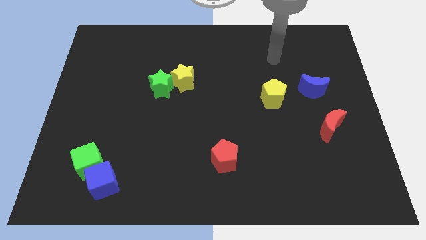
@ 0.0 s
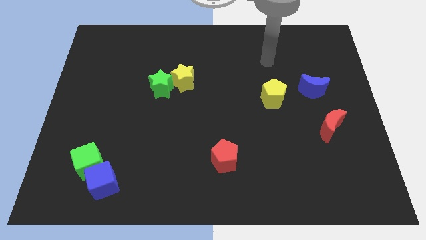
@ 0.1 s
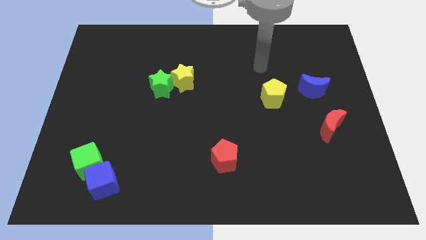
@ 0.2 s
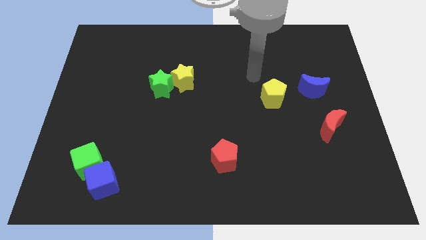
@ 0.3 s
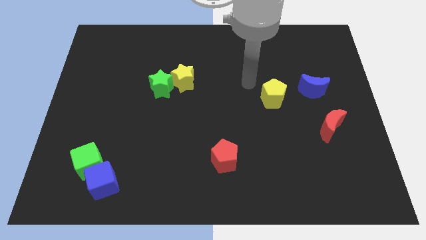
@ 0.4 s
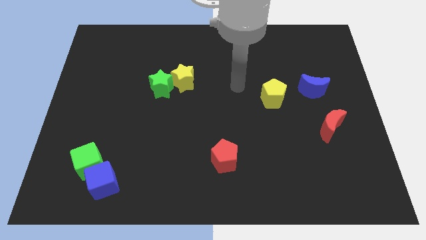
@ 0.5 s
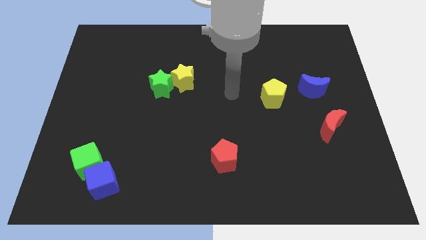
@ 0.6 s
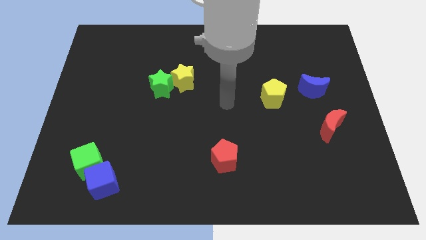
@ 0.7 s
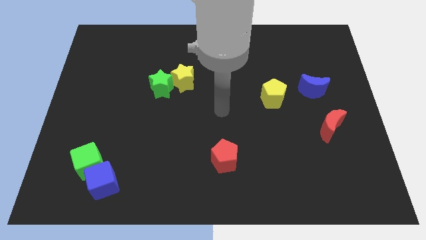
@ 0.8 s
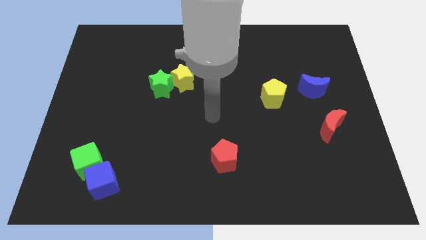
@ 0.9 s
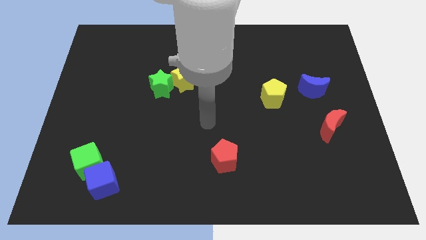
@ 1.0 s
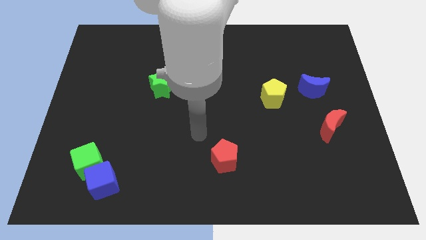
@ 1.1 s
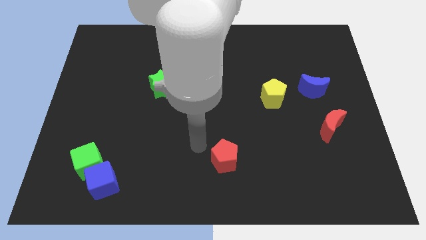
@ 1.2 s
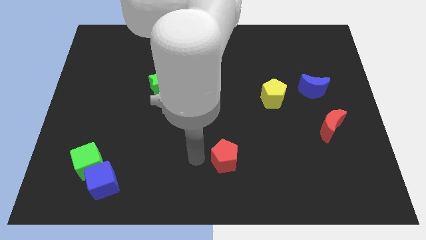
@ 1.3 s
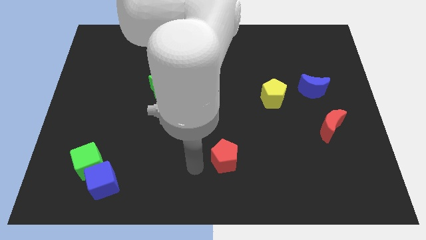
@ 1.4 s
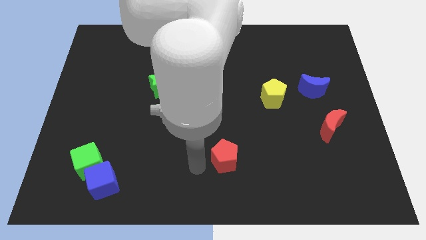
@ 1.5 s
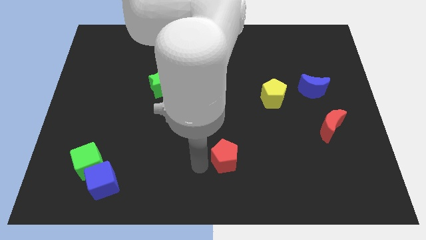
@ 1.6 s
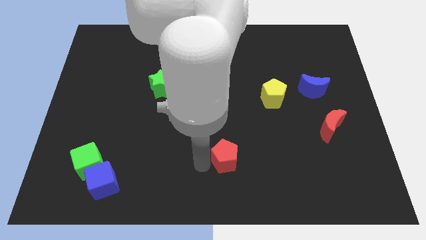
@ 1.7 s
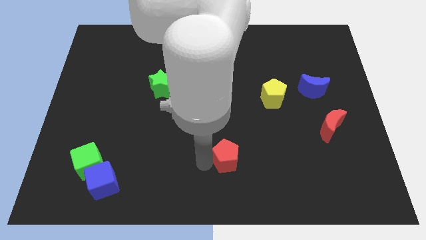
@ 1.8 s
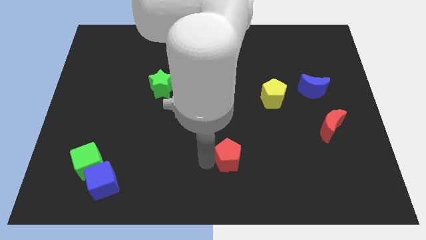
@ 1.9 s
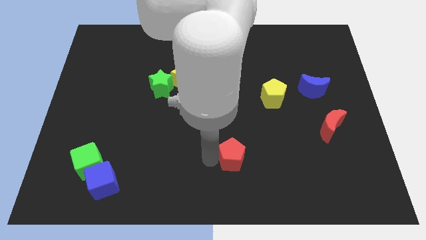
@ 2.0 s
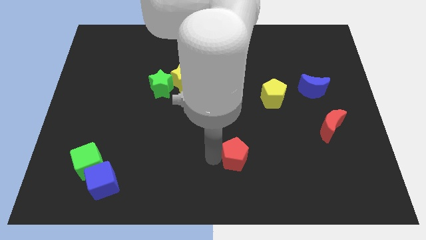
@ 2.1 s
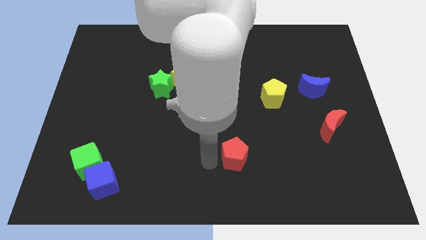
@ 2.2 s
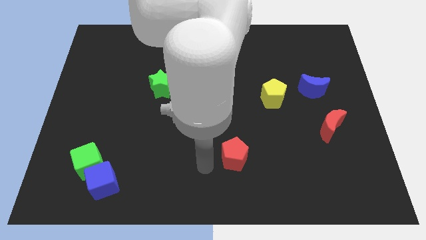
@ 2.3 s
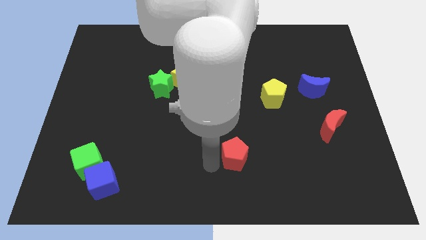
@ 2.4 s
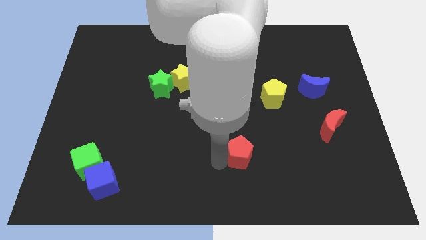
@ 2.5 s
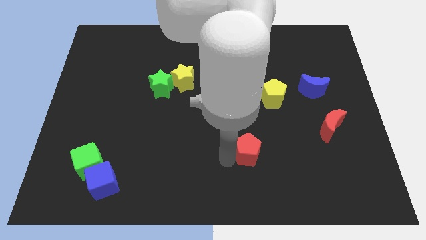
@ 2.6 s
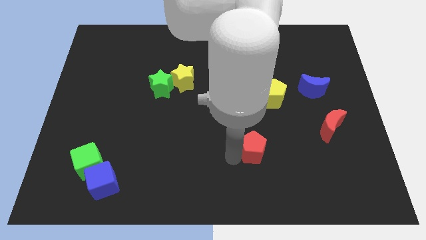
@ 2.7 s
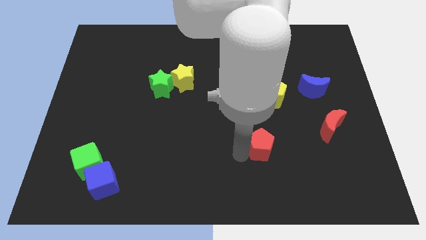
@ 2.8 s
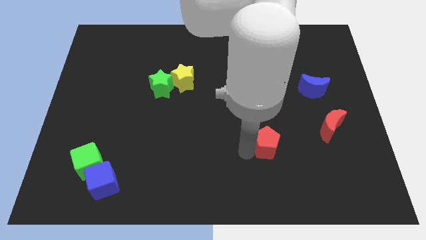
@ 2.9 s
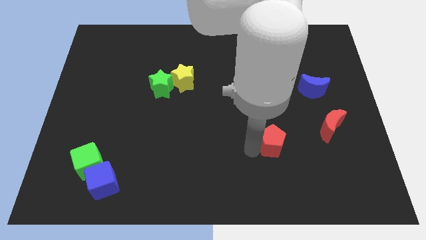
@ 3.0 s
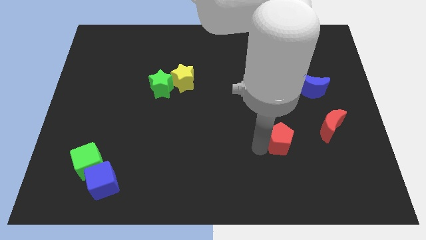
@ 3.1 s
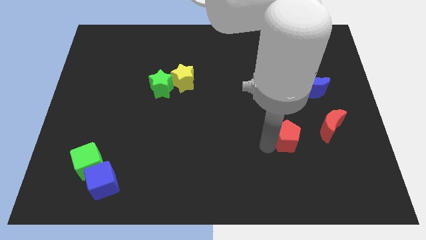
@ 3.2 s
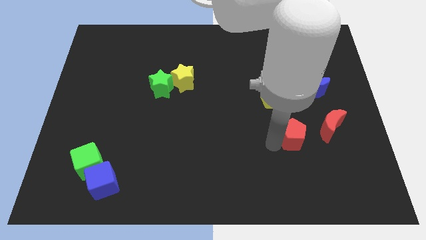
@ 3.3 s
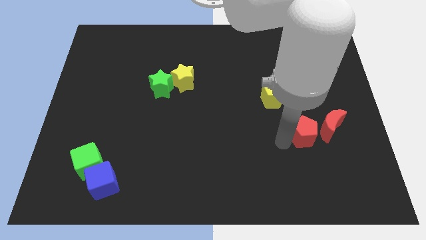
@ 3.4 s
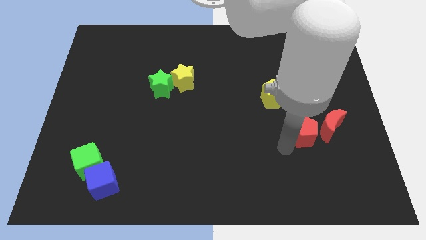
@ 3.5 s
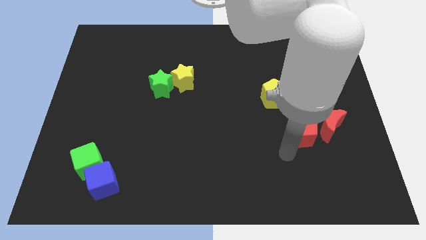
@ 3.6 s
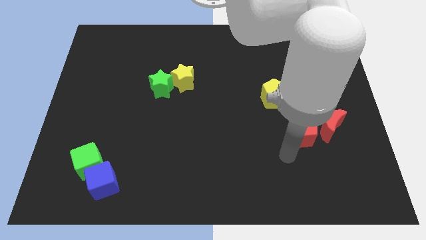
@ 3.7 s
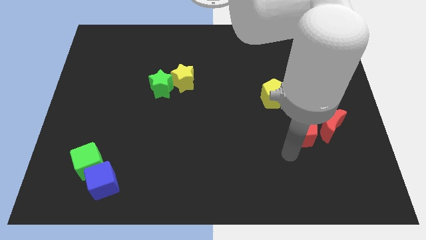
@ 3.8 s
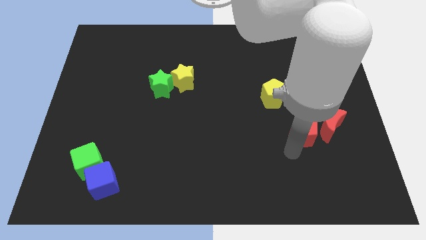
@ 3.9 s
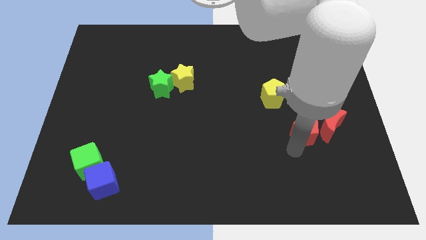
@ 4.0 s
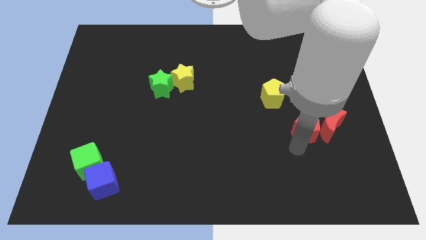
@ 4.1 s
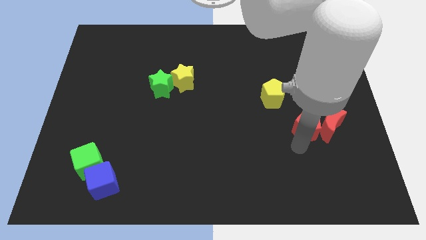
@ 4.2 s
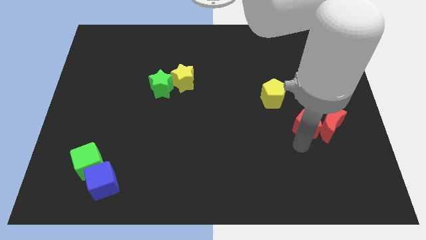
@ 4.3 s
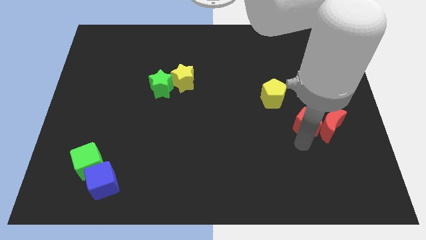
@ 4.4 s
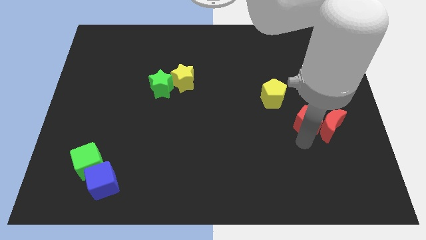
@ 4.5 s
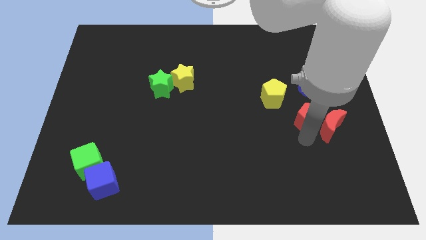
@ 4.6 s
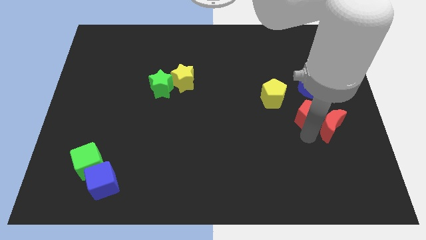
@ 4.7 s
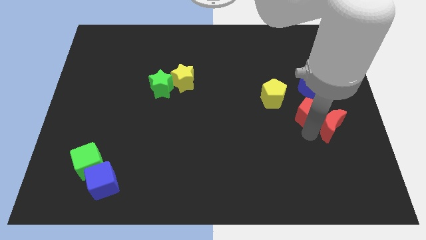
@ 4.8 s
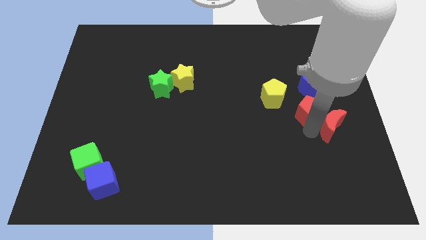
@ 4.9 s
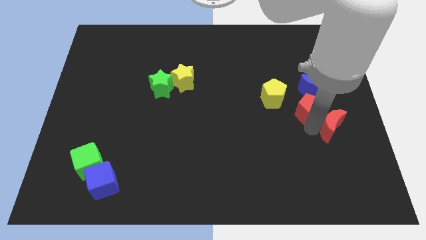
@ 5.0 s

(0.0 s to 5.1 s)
move the red pentagon to the right side of the yellow pentagon

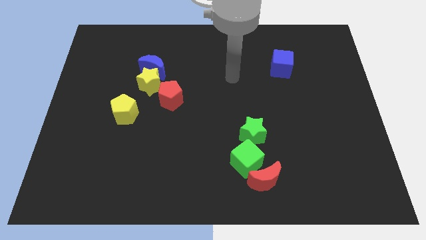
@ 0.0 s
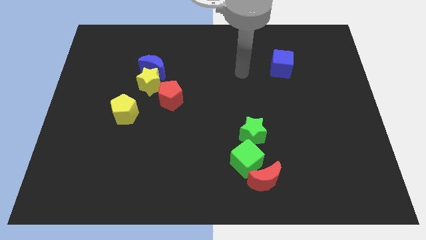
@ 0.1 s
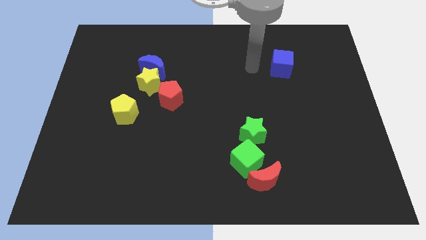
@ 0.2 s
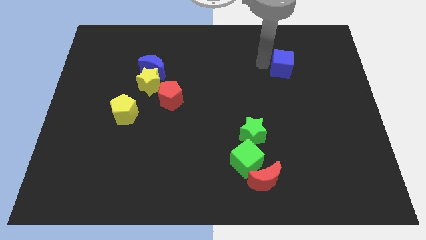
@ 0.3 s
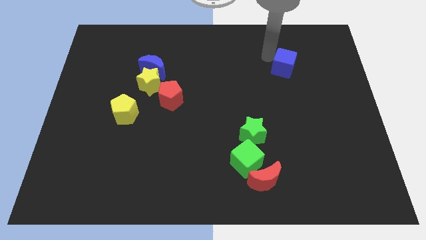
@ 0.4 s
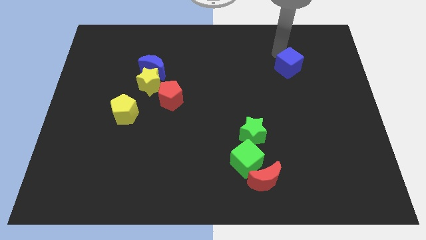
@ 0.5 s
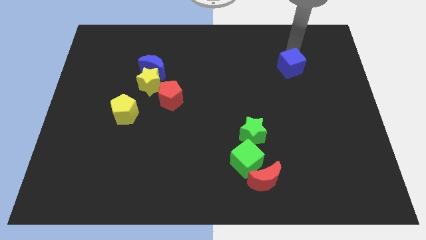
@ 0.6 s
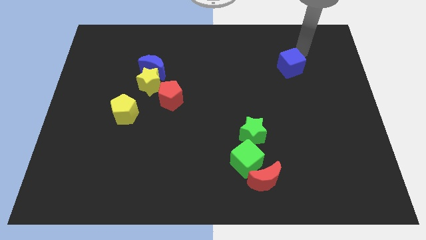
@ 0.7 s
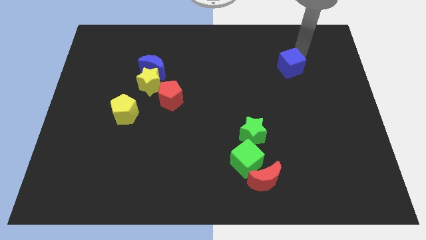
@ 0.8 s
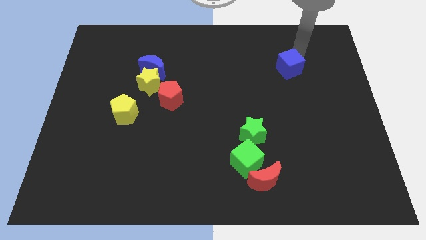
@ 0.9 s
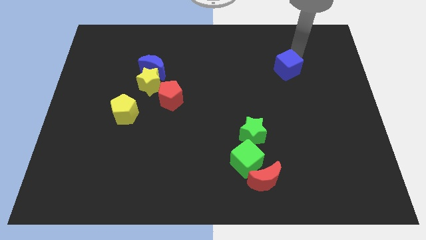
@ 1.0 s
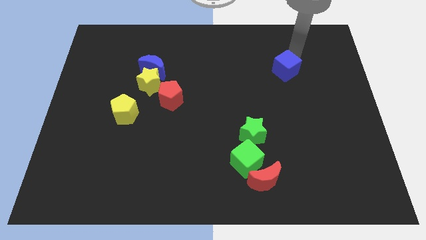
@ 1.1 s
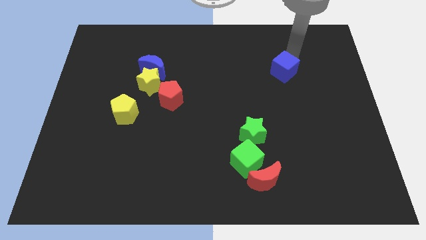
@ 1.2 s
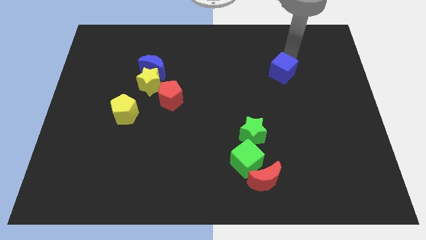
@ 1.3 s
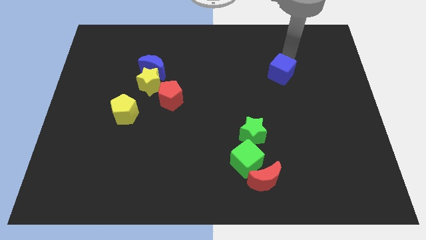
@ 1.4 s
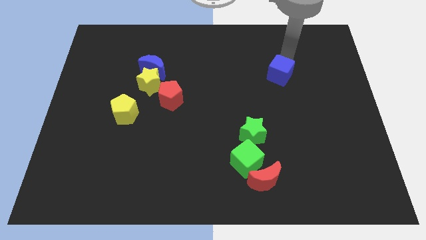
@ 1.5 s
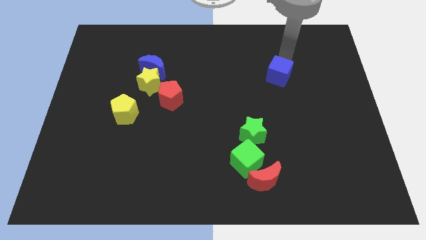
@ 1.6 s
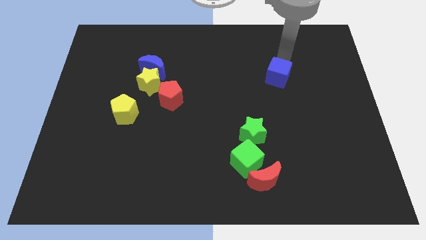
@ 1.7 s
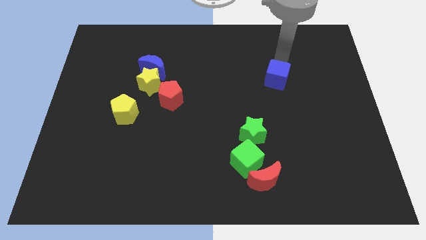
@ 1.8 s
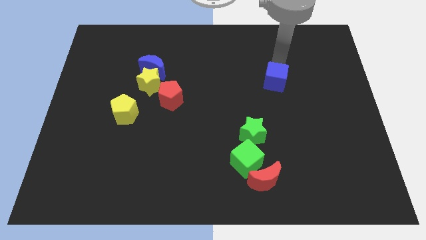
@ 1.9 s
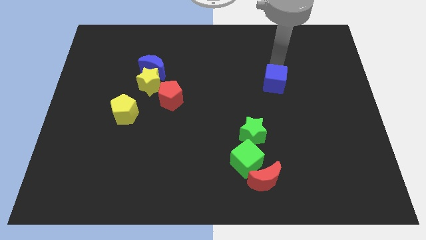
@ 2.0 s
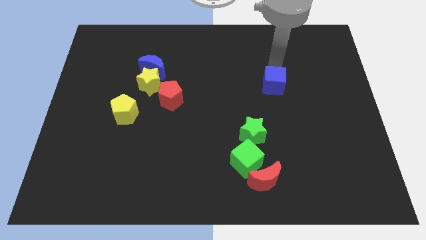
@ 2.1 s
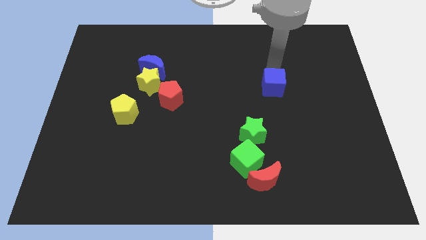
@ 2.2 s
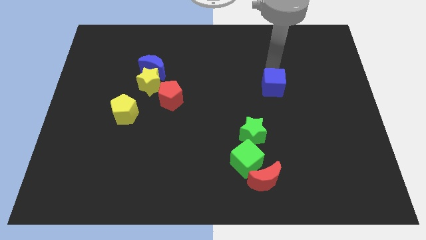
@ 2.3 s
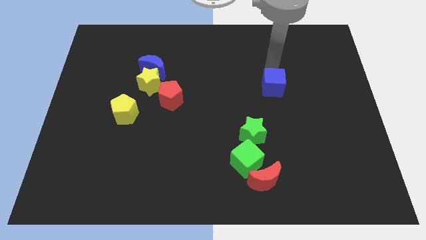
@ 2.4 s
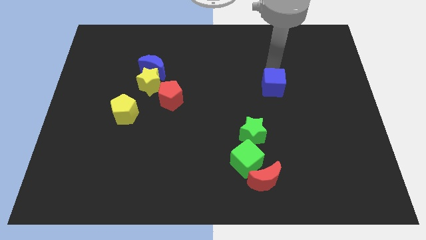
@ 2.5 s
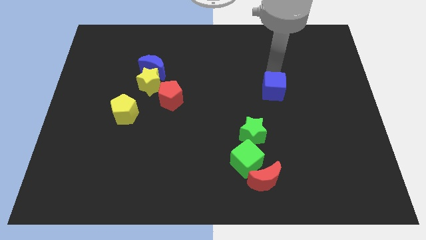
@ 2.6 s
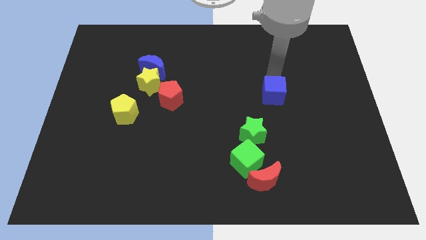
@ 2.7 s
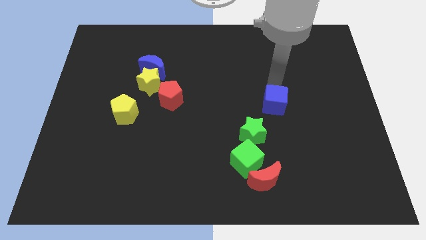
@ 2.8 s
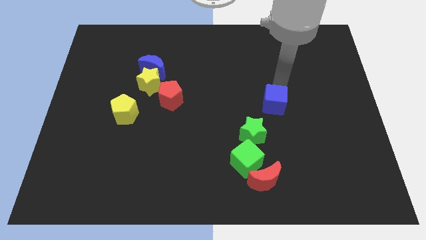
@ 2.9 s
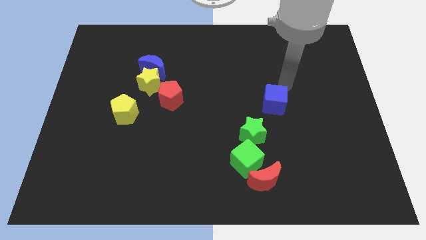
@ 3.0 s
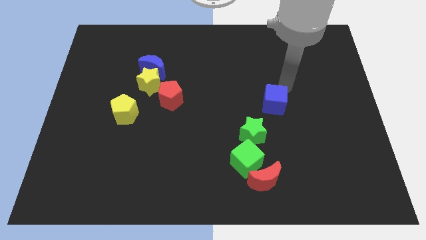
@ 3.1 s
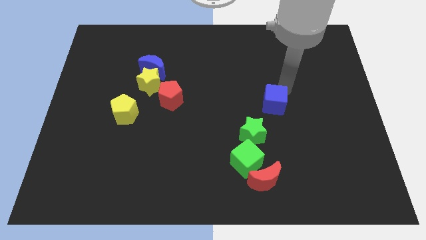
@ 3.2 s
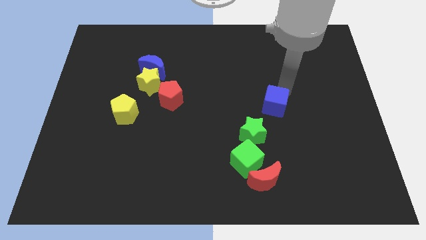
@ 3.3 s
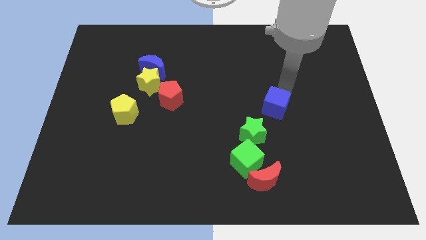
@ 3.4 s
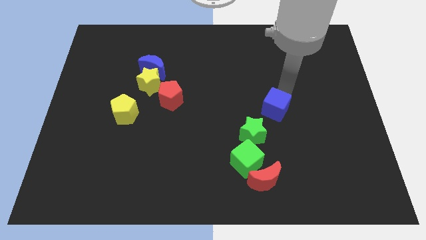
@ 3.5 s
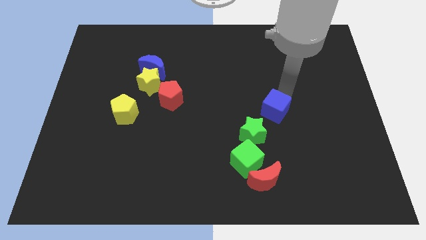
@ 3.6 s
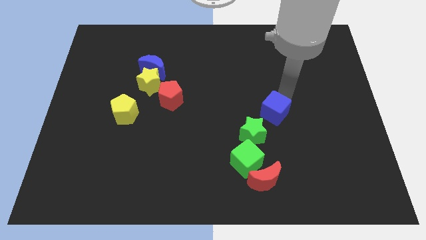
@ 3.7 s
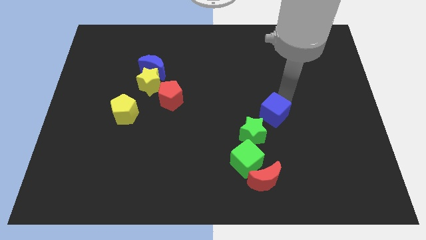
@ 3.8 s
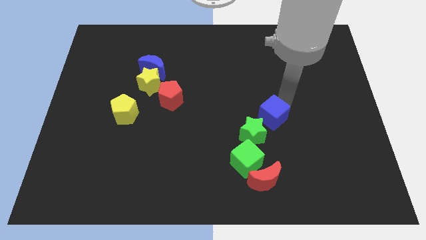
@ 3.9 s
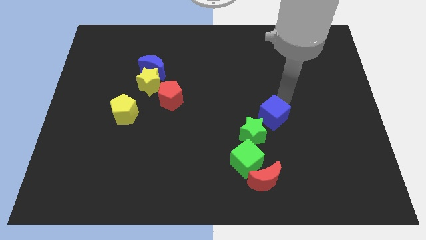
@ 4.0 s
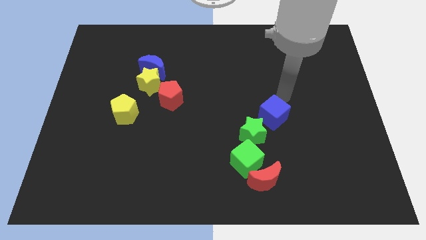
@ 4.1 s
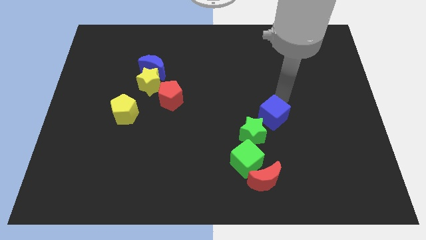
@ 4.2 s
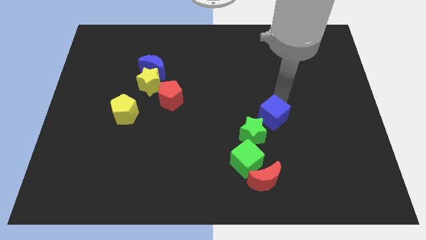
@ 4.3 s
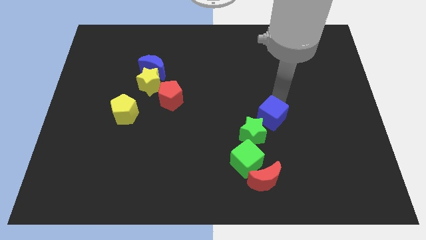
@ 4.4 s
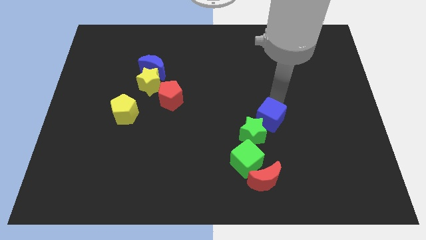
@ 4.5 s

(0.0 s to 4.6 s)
slide the blue cube to the top side of the red moon
